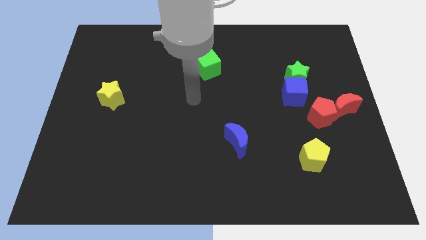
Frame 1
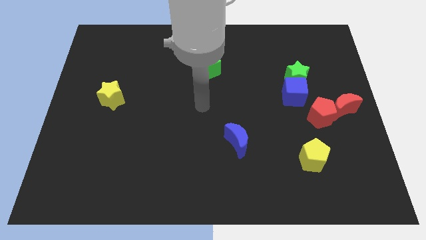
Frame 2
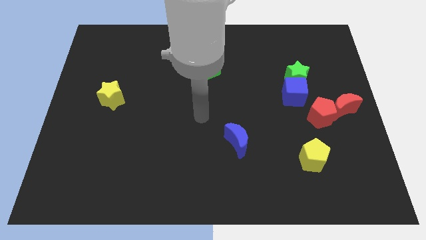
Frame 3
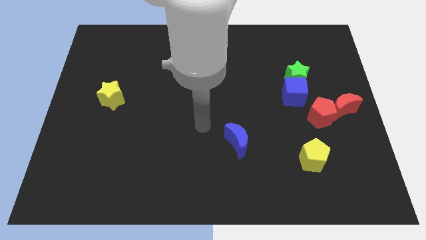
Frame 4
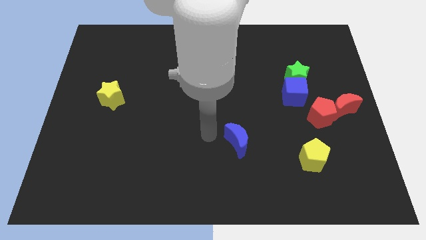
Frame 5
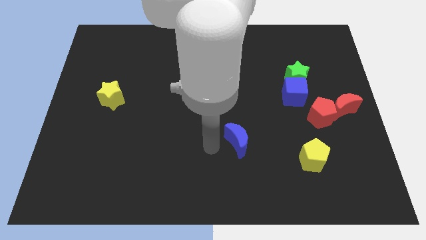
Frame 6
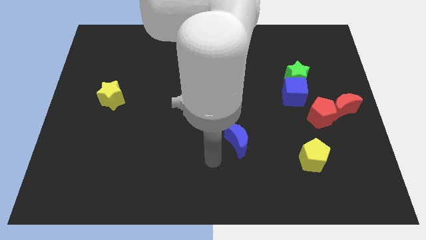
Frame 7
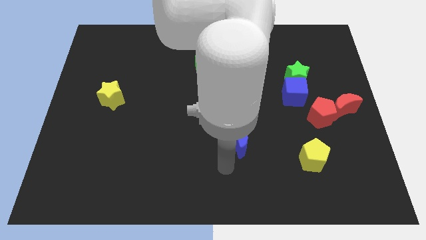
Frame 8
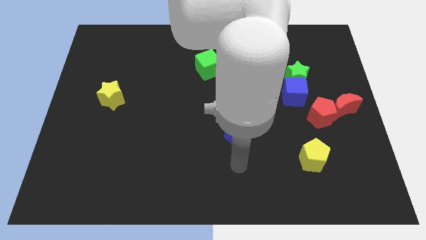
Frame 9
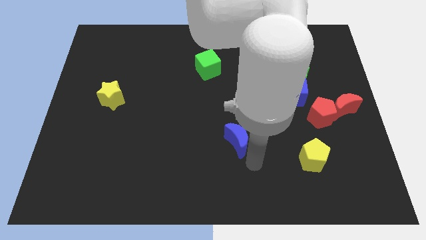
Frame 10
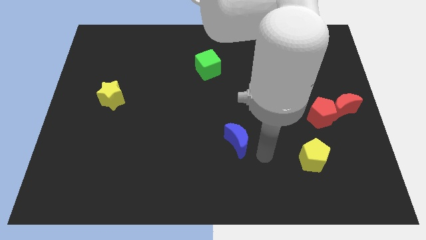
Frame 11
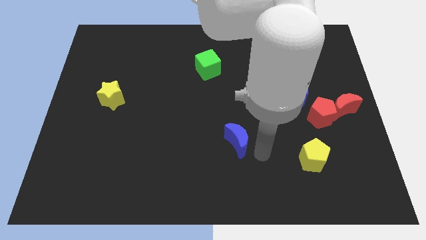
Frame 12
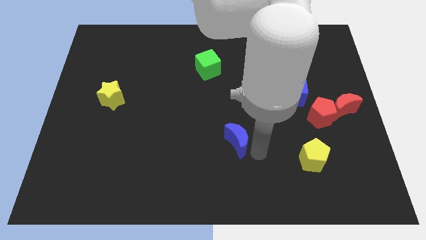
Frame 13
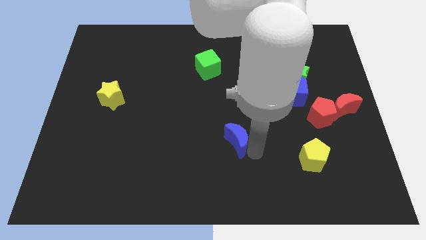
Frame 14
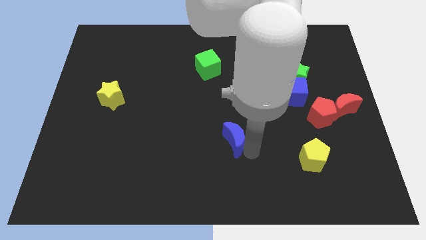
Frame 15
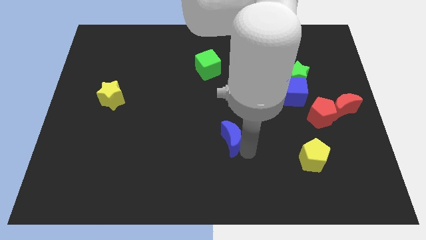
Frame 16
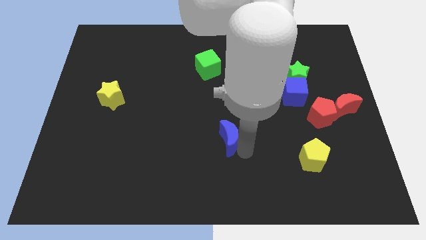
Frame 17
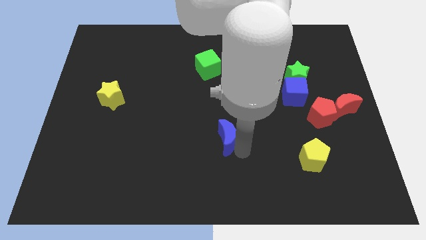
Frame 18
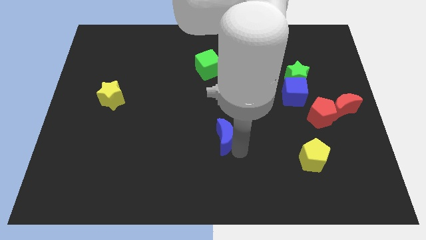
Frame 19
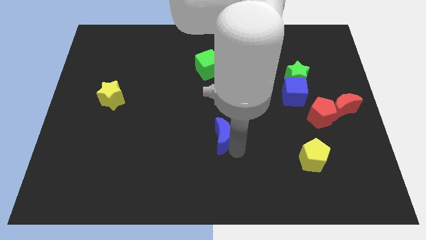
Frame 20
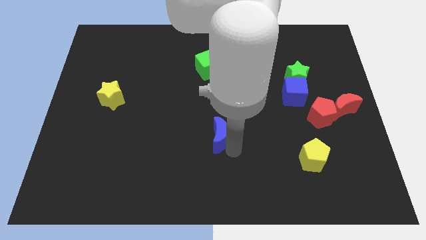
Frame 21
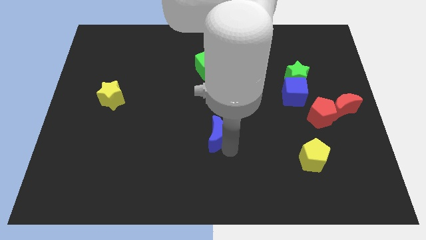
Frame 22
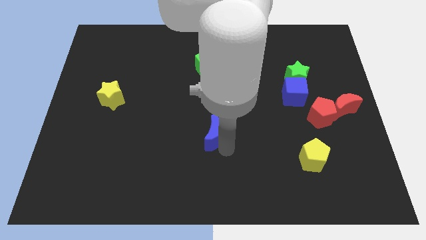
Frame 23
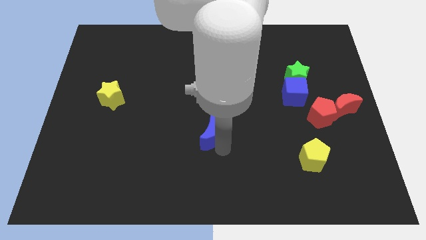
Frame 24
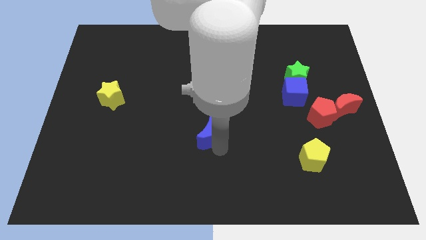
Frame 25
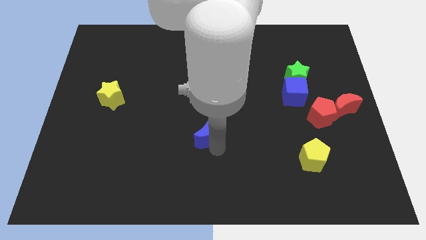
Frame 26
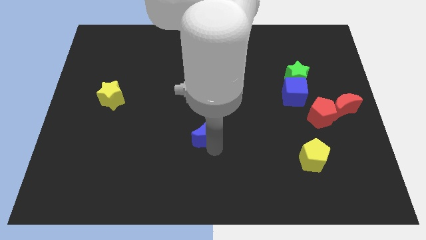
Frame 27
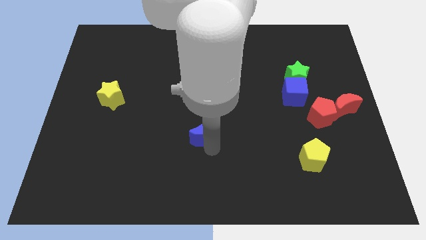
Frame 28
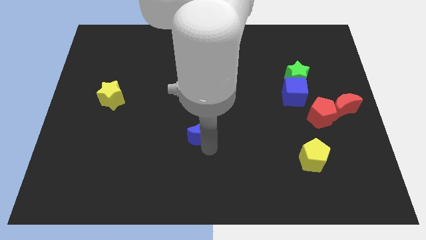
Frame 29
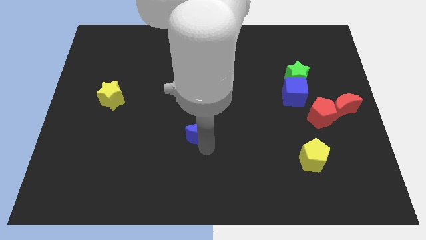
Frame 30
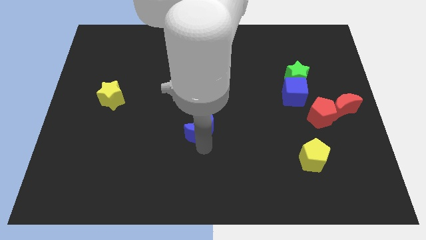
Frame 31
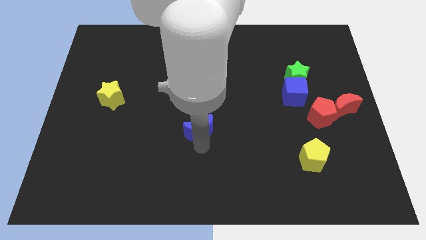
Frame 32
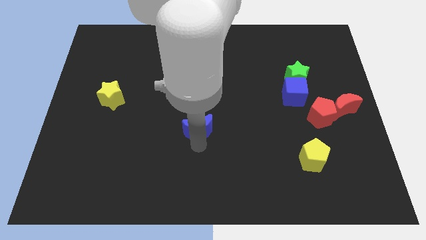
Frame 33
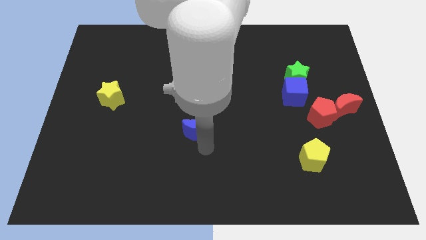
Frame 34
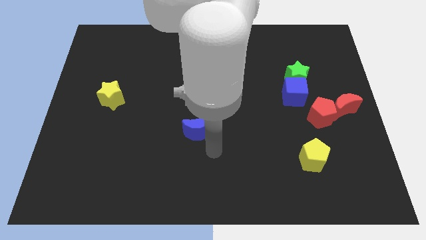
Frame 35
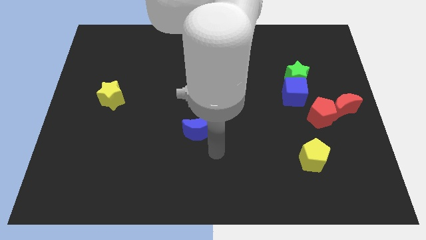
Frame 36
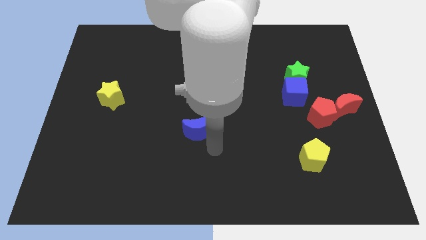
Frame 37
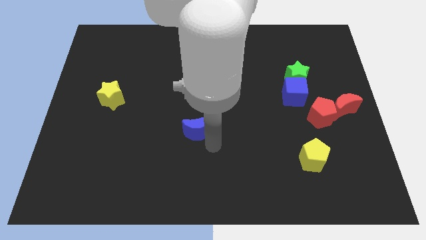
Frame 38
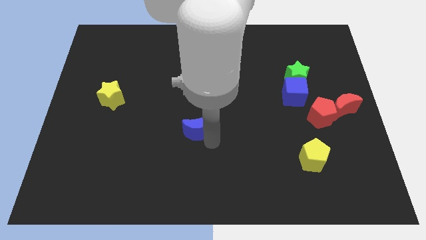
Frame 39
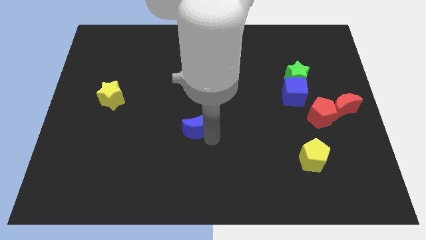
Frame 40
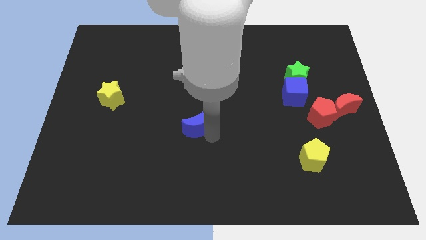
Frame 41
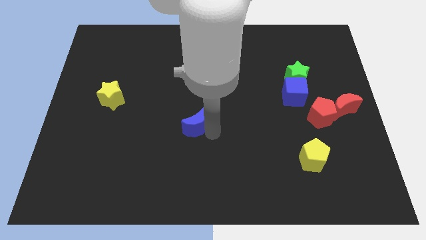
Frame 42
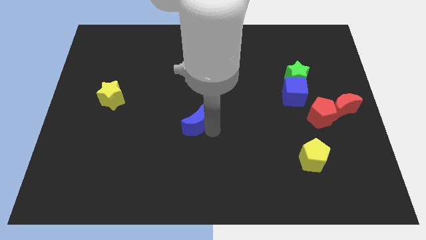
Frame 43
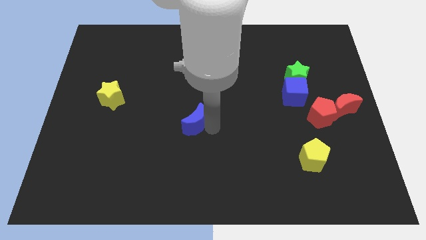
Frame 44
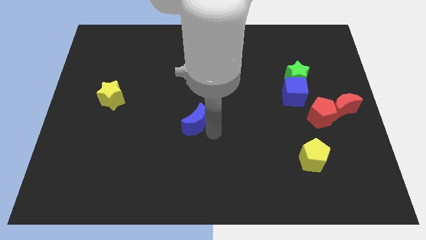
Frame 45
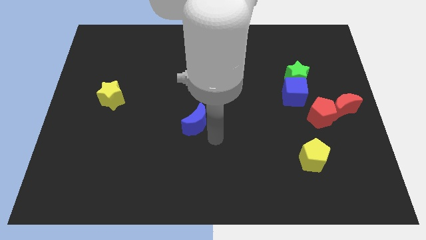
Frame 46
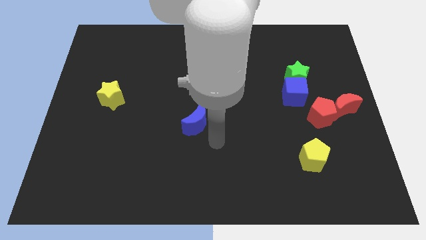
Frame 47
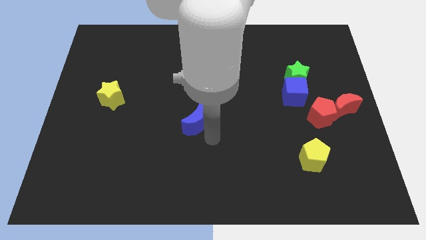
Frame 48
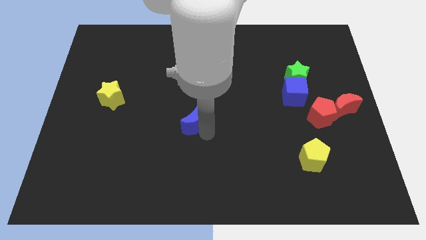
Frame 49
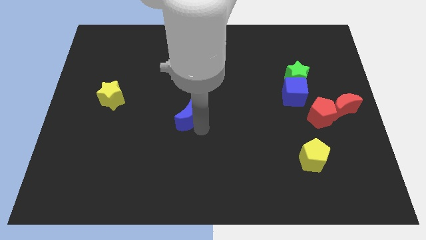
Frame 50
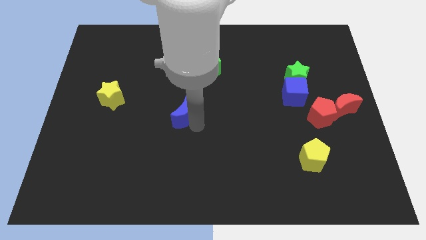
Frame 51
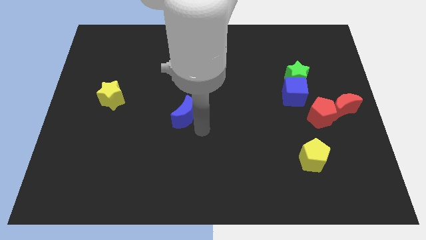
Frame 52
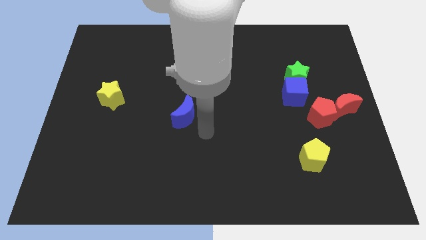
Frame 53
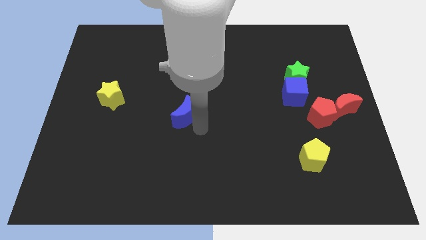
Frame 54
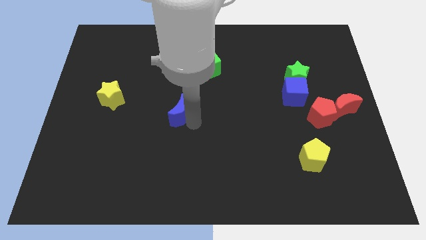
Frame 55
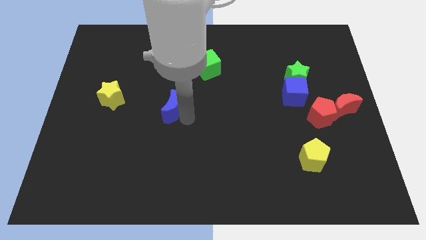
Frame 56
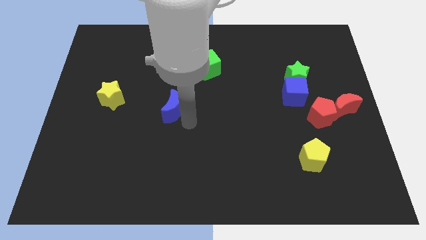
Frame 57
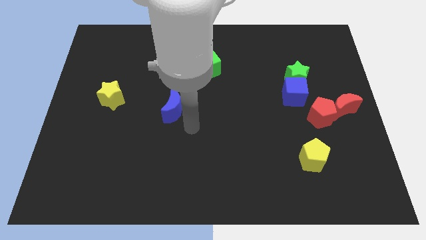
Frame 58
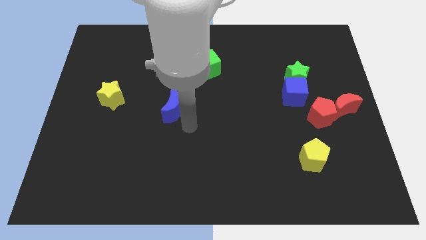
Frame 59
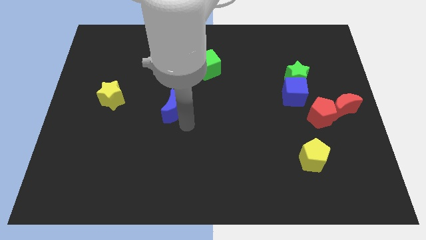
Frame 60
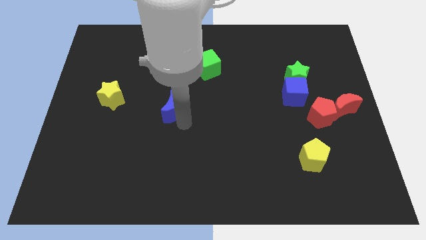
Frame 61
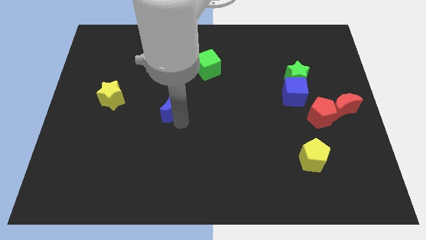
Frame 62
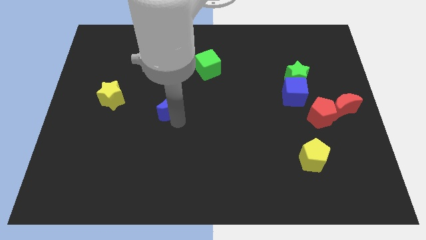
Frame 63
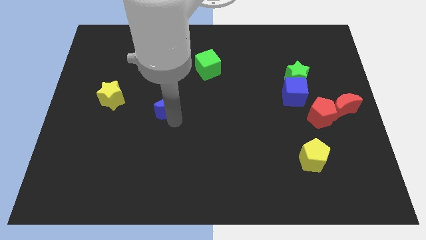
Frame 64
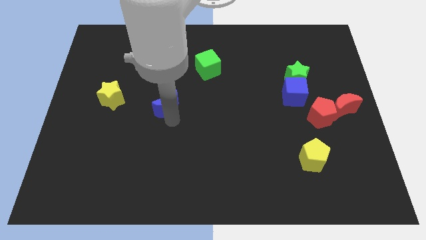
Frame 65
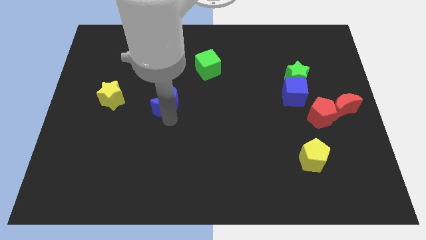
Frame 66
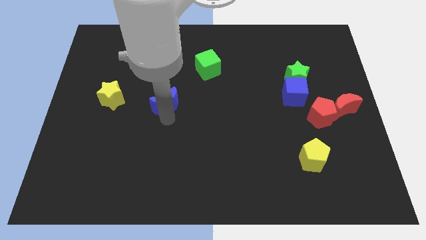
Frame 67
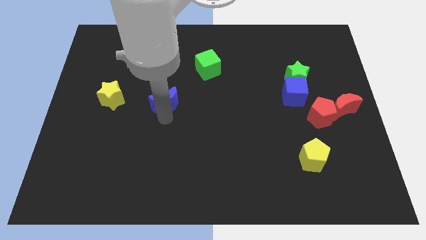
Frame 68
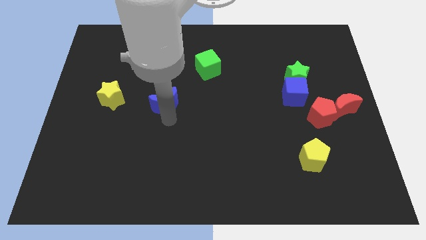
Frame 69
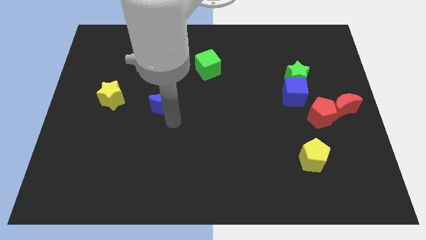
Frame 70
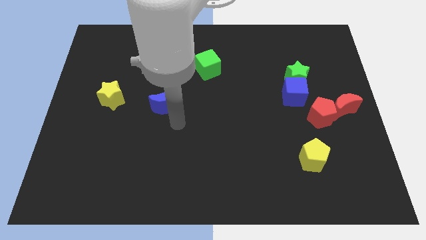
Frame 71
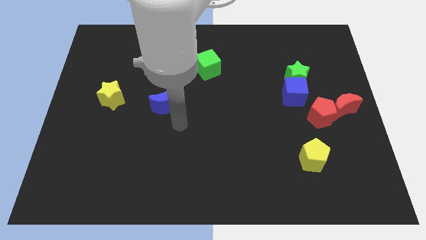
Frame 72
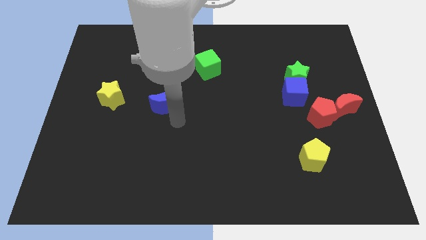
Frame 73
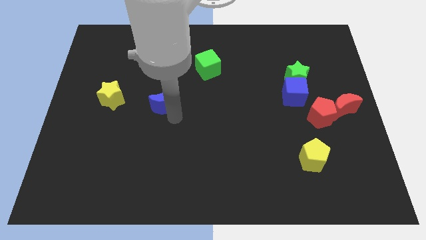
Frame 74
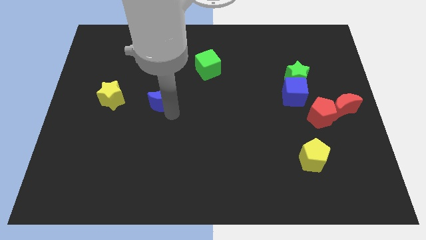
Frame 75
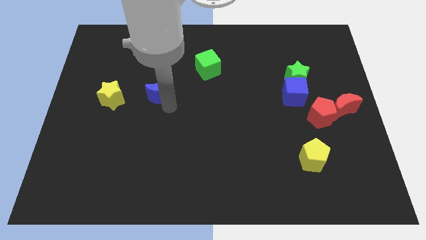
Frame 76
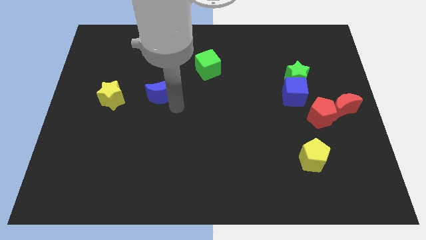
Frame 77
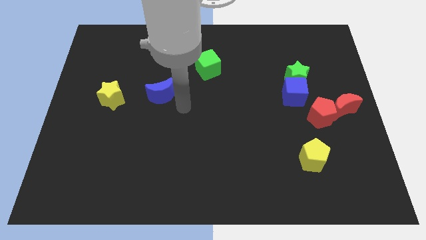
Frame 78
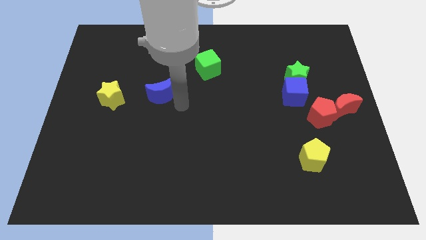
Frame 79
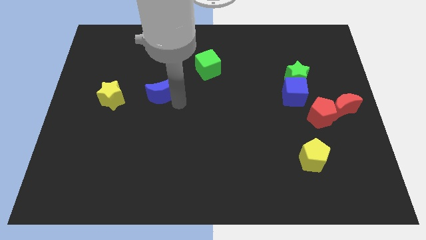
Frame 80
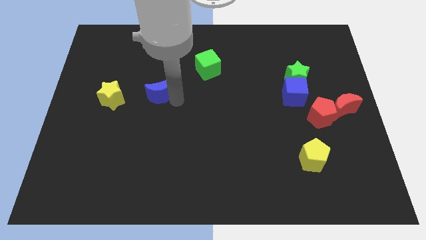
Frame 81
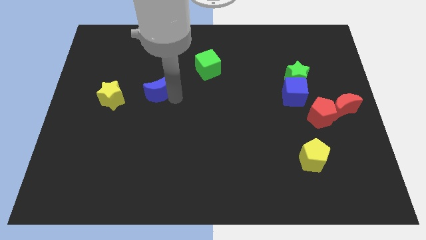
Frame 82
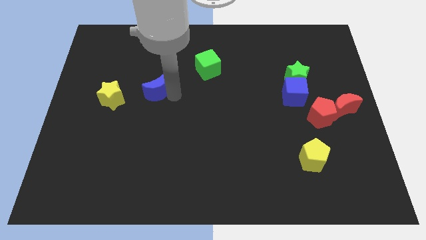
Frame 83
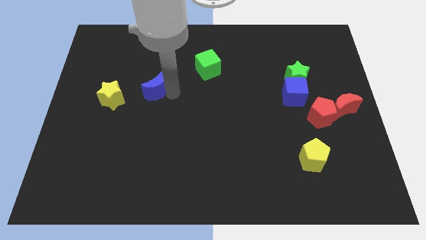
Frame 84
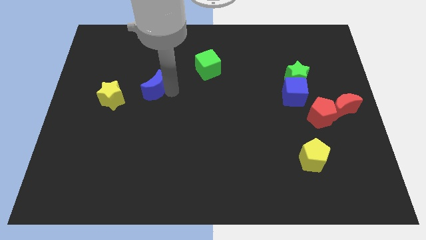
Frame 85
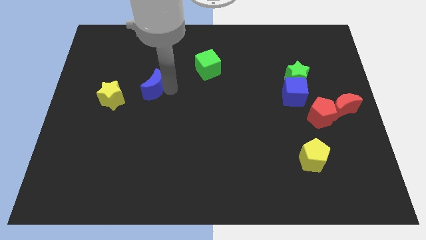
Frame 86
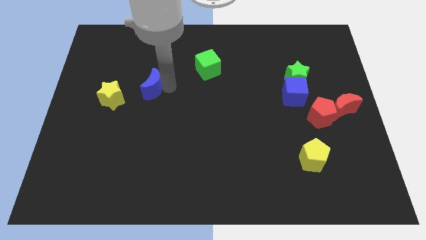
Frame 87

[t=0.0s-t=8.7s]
push the blue moon to the top right of the yellow star
